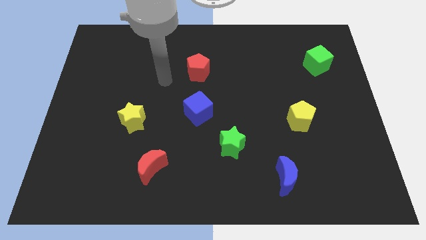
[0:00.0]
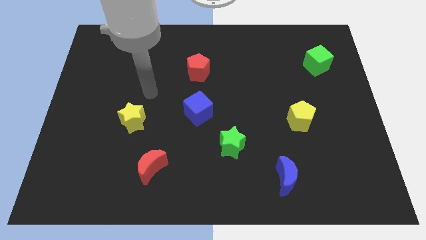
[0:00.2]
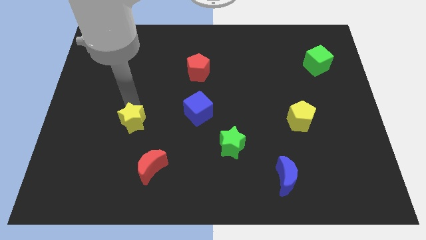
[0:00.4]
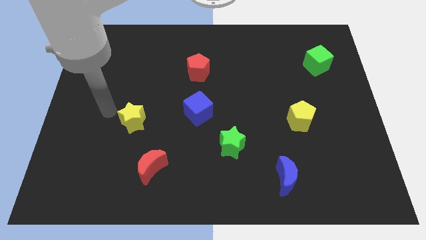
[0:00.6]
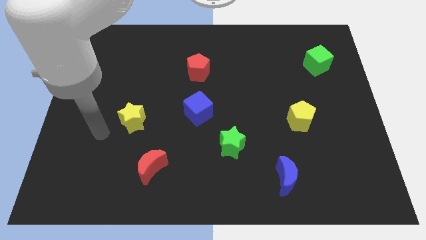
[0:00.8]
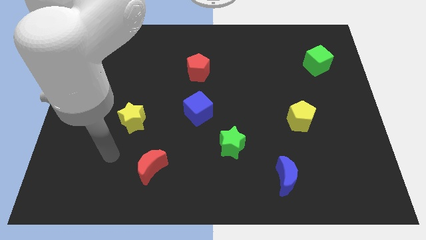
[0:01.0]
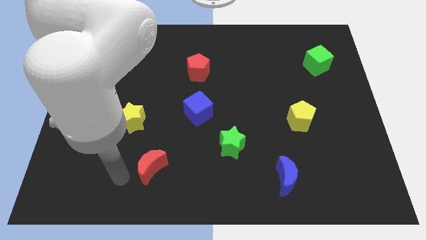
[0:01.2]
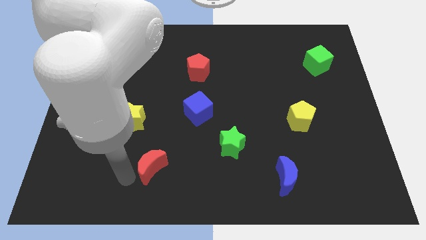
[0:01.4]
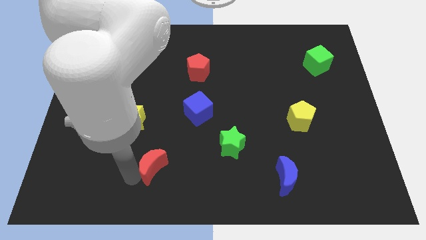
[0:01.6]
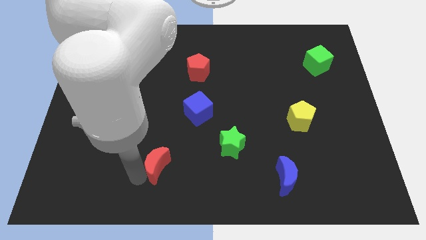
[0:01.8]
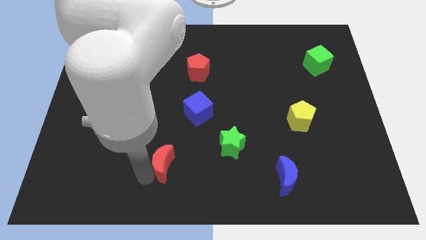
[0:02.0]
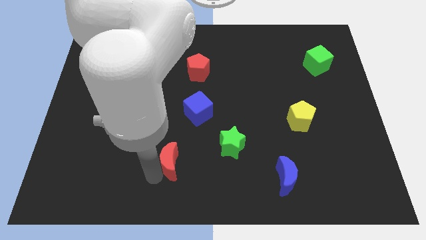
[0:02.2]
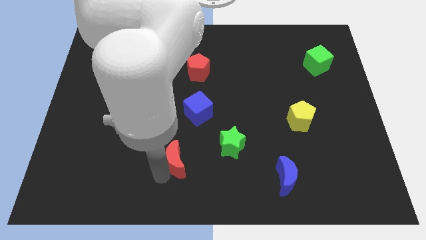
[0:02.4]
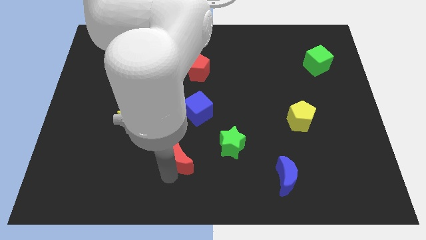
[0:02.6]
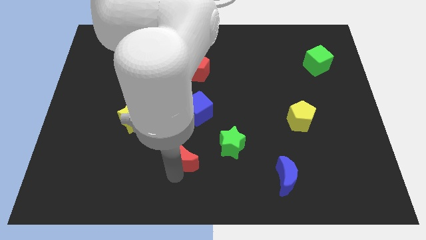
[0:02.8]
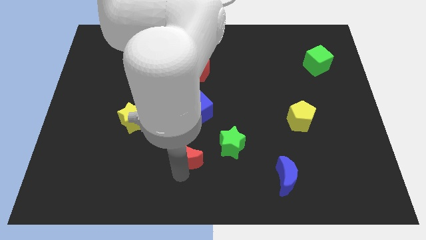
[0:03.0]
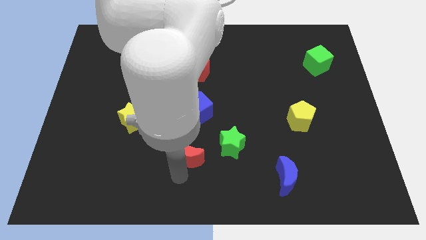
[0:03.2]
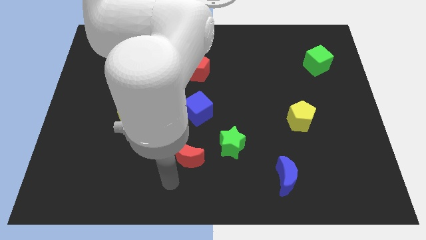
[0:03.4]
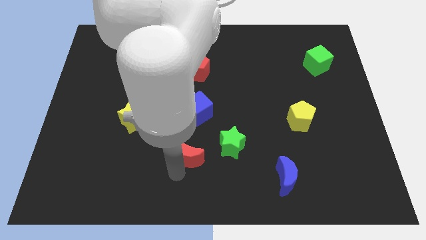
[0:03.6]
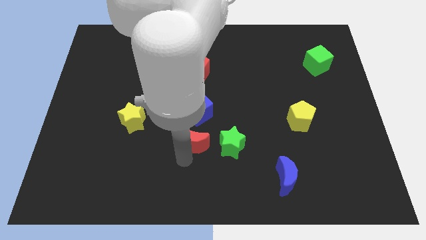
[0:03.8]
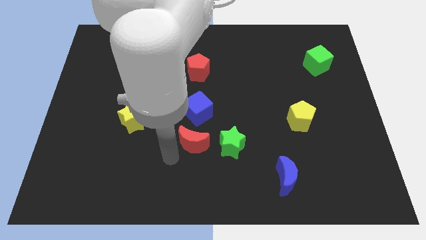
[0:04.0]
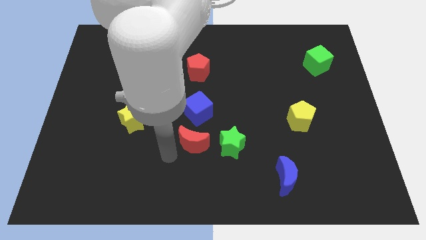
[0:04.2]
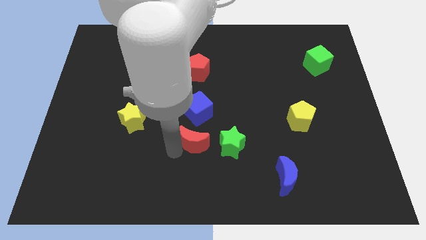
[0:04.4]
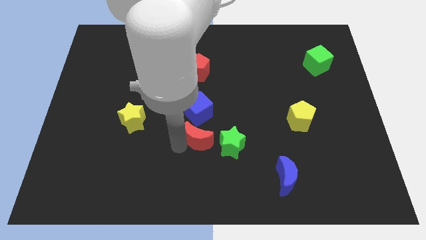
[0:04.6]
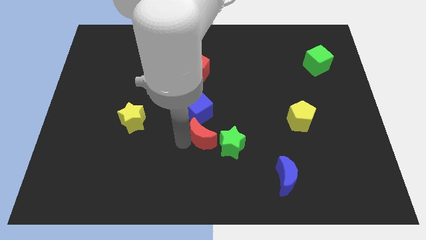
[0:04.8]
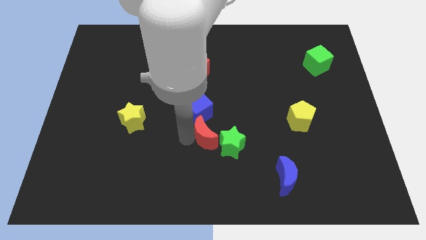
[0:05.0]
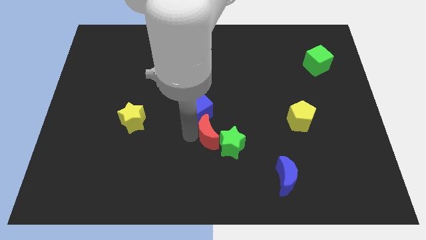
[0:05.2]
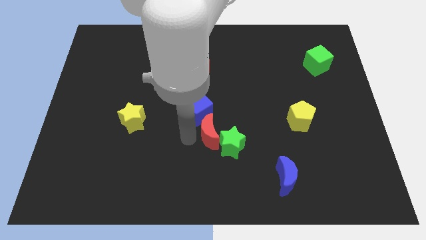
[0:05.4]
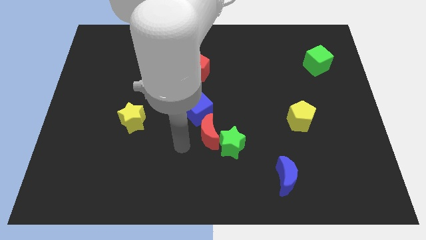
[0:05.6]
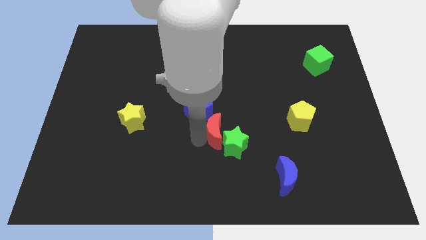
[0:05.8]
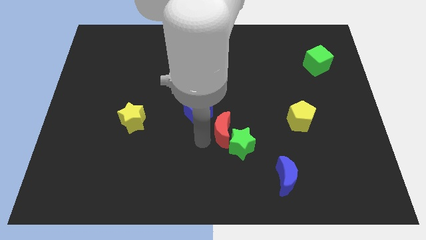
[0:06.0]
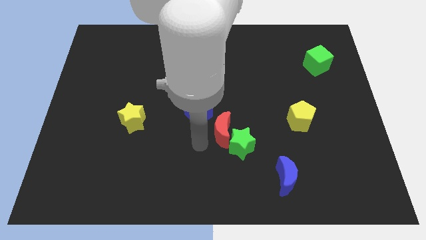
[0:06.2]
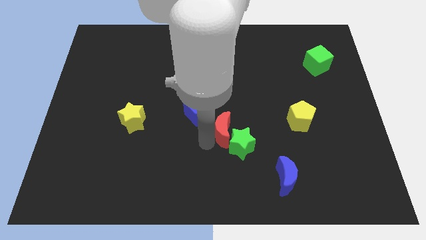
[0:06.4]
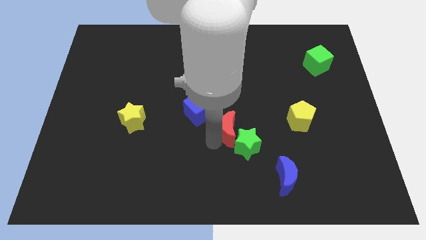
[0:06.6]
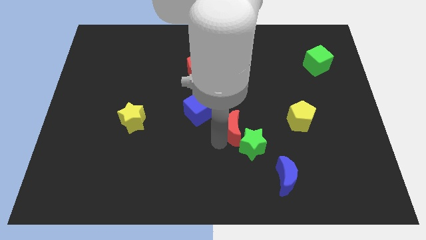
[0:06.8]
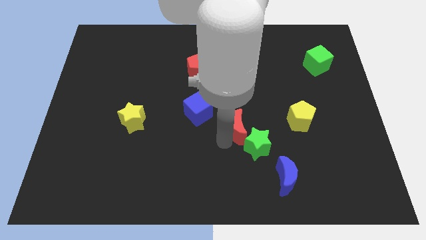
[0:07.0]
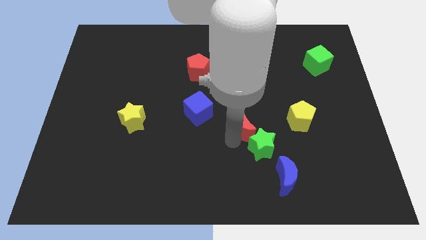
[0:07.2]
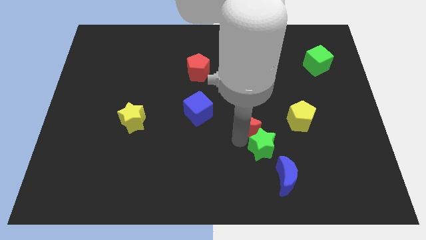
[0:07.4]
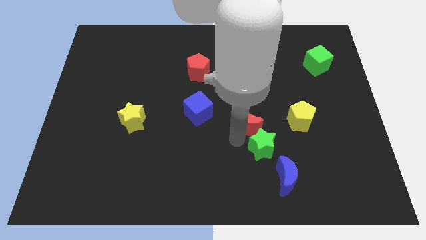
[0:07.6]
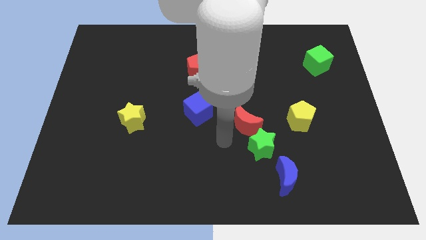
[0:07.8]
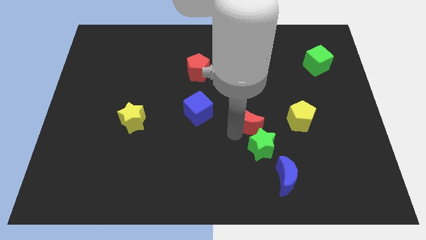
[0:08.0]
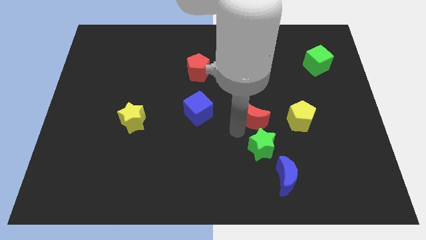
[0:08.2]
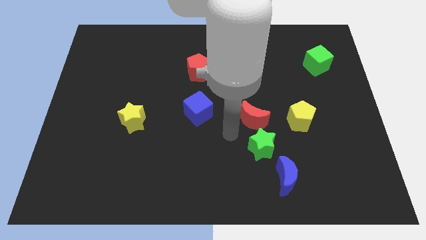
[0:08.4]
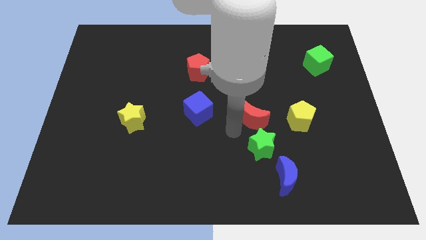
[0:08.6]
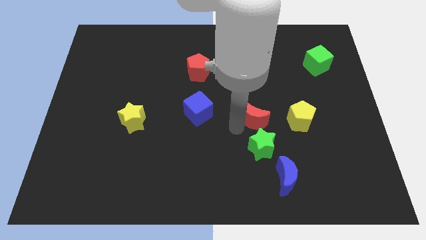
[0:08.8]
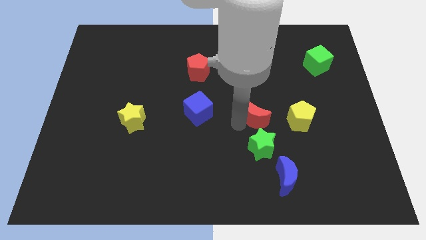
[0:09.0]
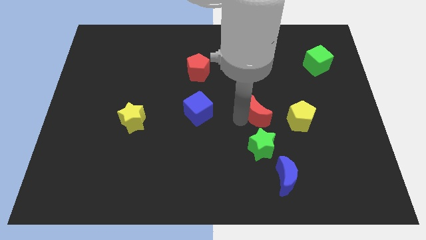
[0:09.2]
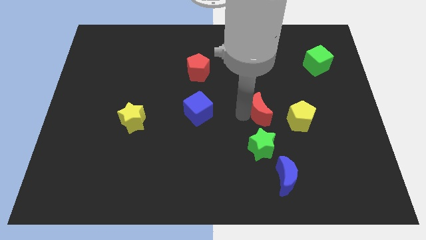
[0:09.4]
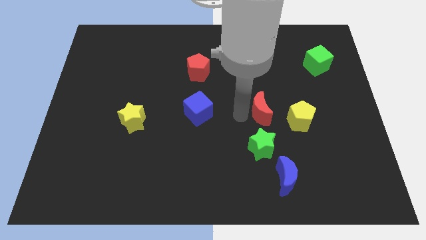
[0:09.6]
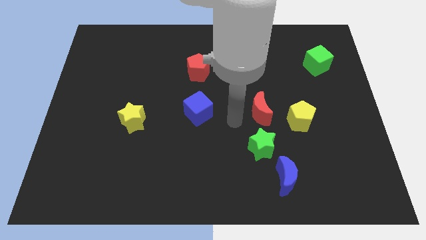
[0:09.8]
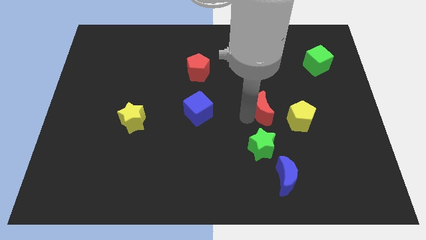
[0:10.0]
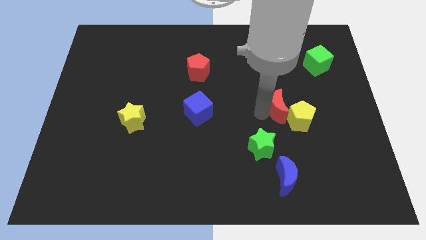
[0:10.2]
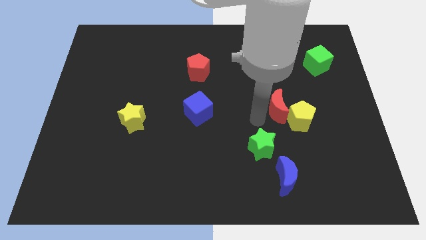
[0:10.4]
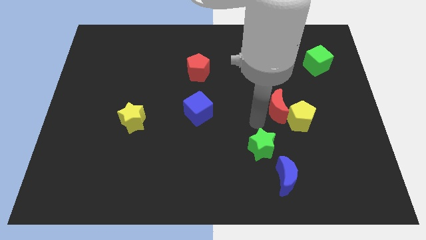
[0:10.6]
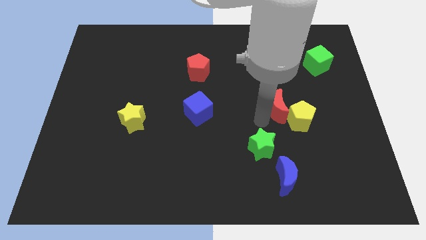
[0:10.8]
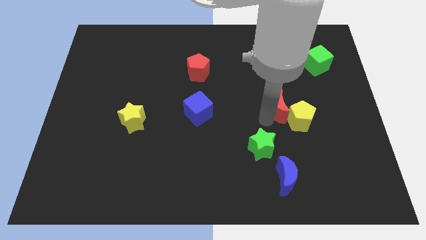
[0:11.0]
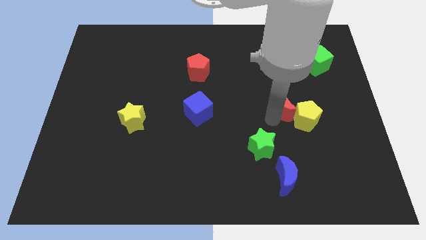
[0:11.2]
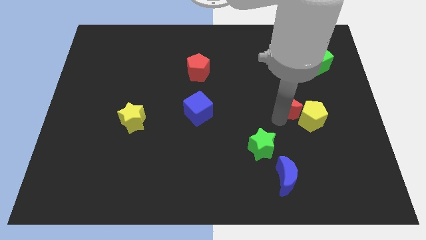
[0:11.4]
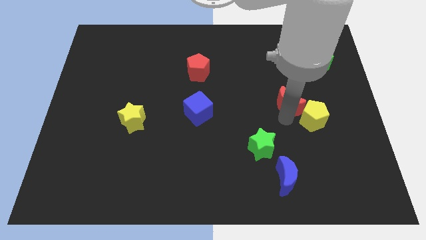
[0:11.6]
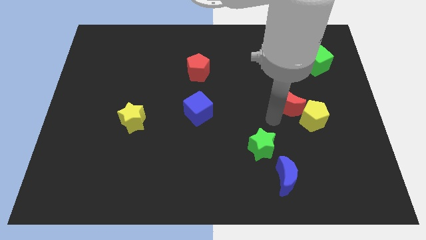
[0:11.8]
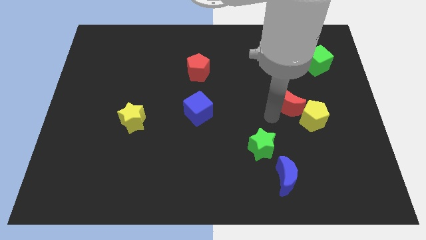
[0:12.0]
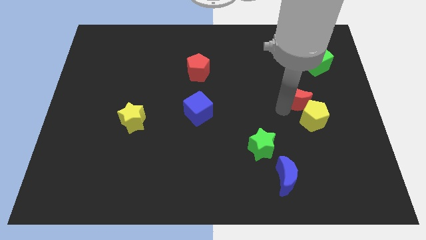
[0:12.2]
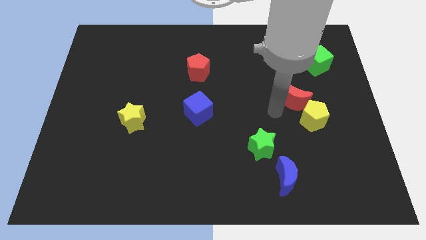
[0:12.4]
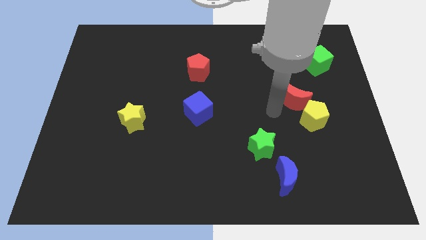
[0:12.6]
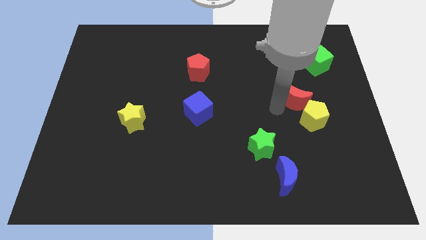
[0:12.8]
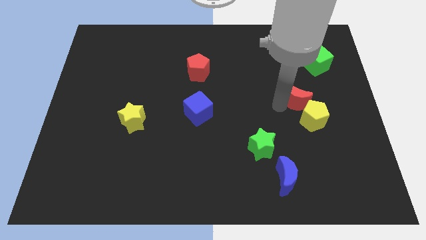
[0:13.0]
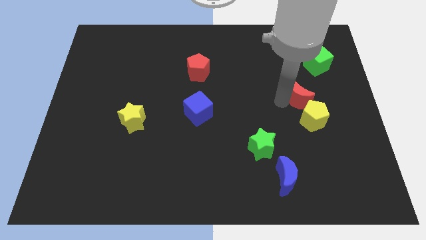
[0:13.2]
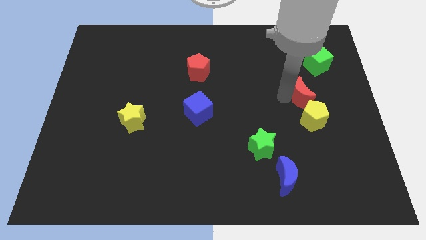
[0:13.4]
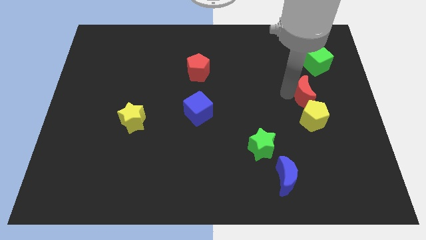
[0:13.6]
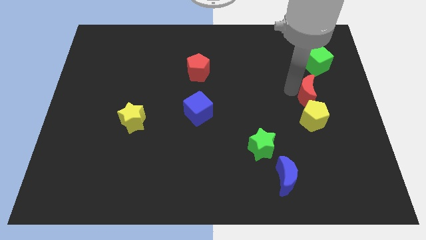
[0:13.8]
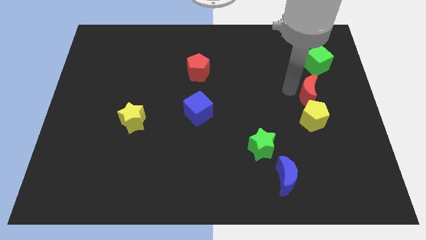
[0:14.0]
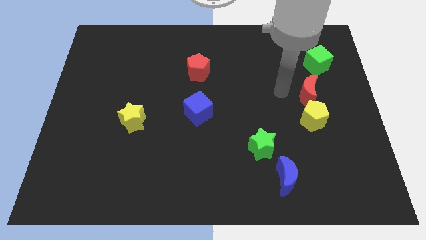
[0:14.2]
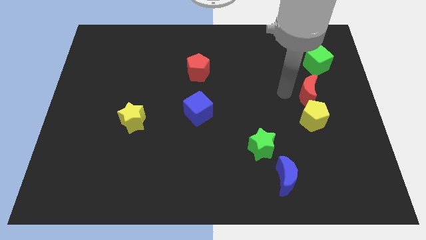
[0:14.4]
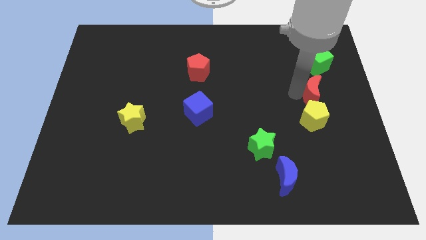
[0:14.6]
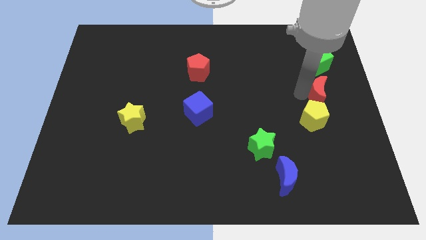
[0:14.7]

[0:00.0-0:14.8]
slide the red moon to the right side of the board
